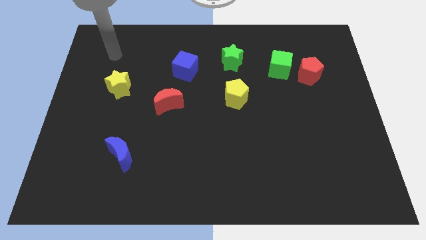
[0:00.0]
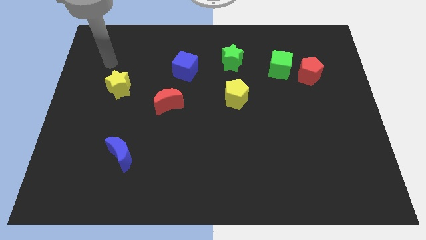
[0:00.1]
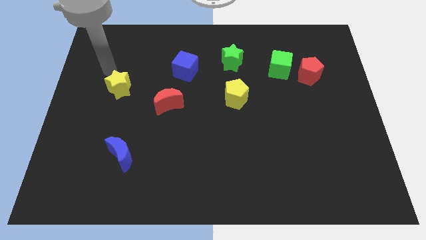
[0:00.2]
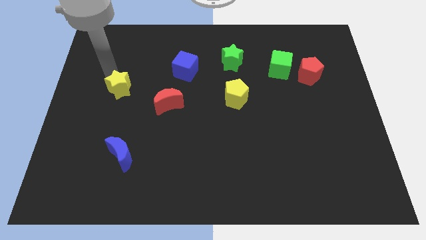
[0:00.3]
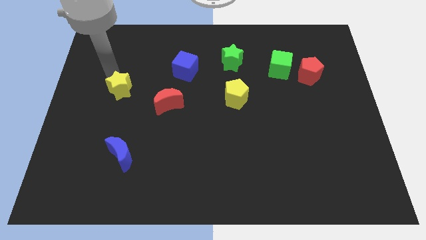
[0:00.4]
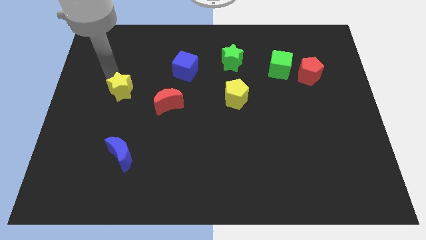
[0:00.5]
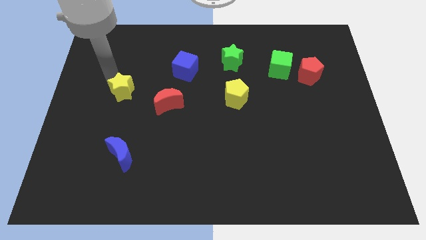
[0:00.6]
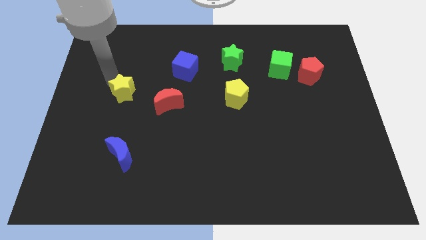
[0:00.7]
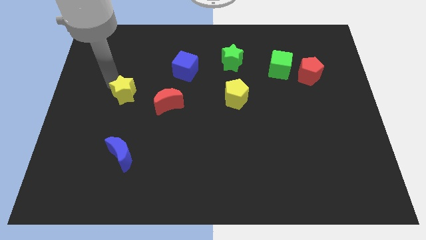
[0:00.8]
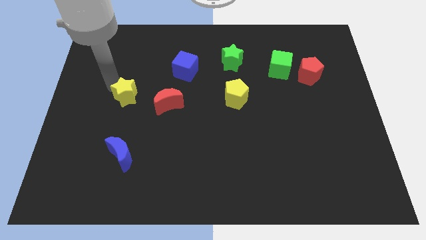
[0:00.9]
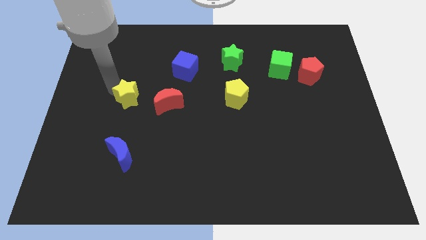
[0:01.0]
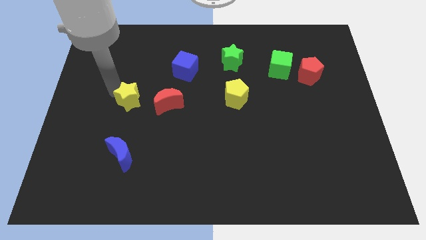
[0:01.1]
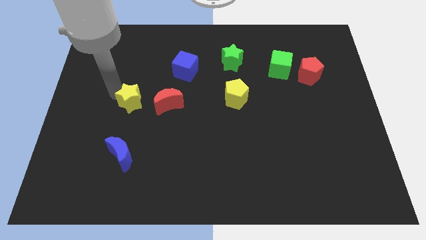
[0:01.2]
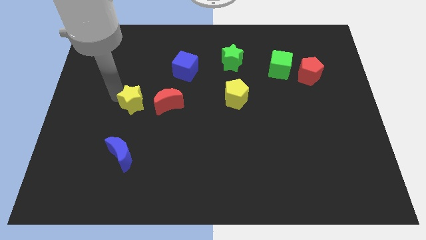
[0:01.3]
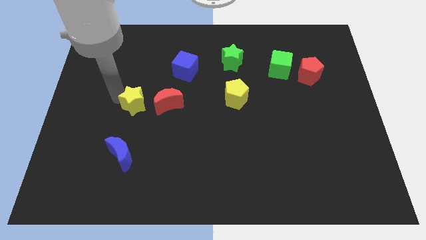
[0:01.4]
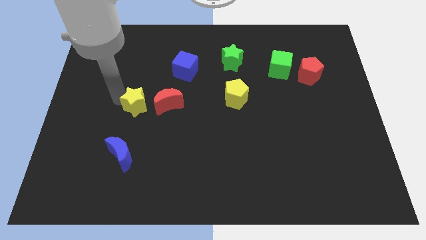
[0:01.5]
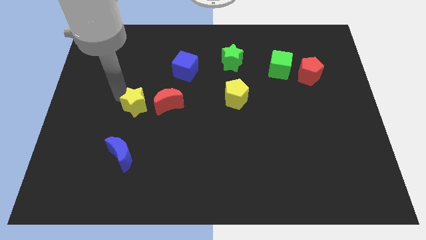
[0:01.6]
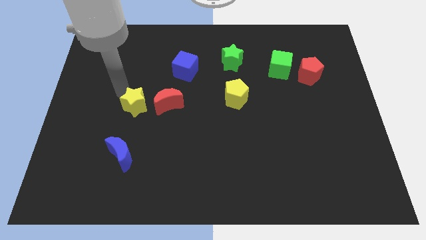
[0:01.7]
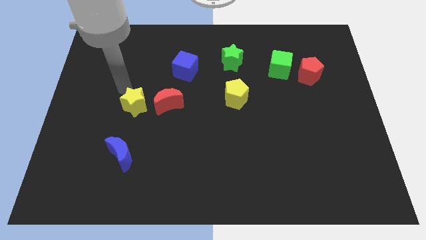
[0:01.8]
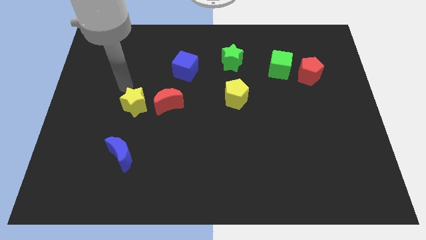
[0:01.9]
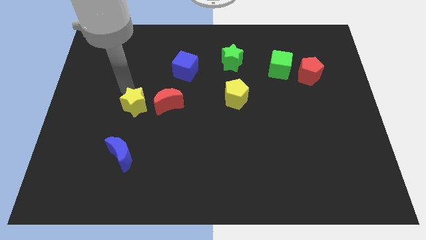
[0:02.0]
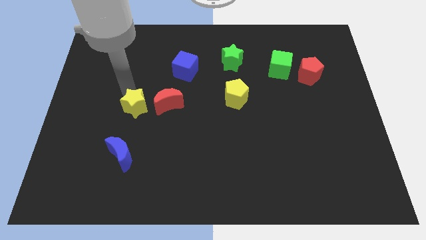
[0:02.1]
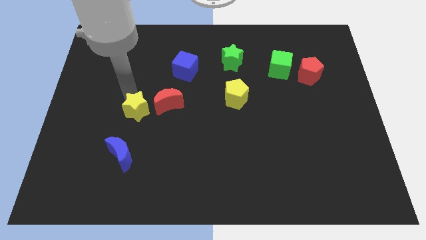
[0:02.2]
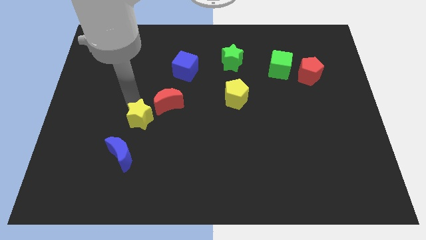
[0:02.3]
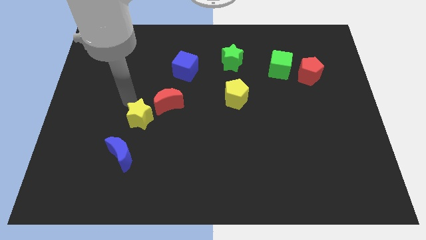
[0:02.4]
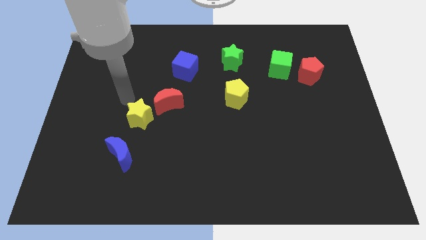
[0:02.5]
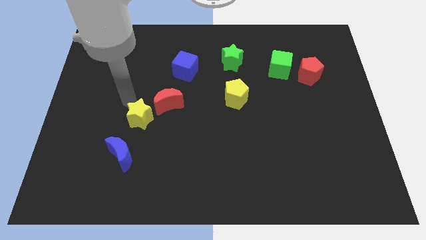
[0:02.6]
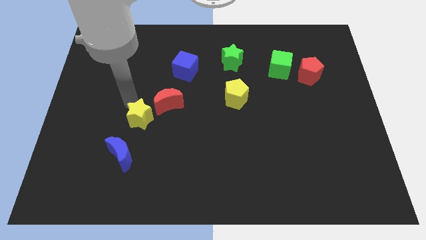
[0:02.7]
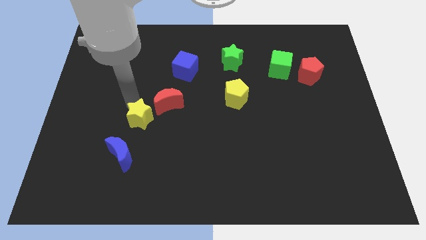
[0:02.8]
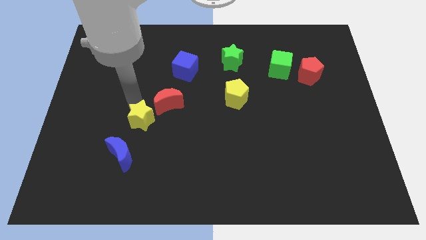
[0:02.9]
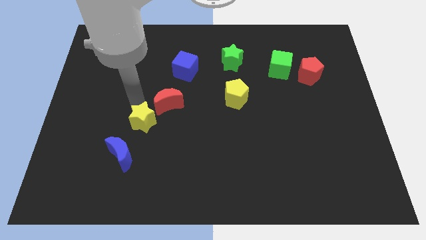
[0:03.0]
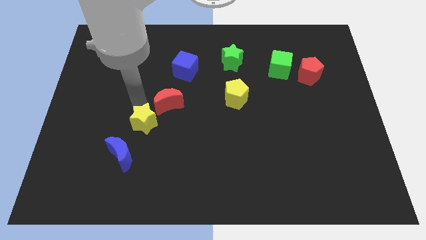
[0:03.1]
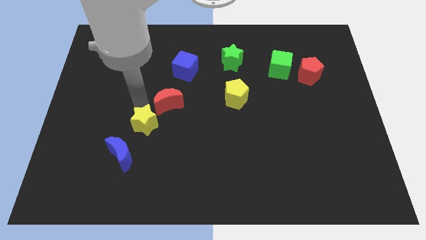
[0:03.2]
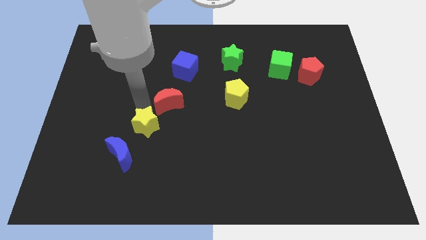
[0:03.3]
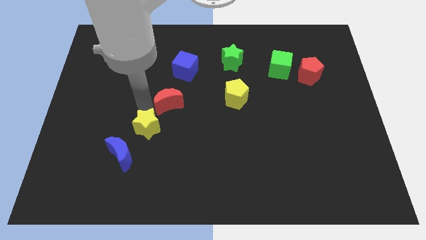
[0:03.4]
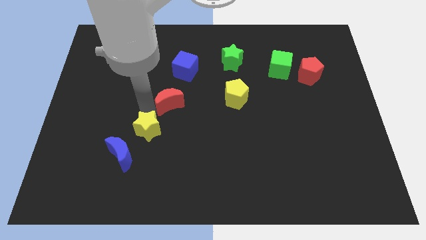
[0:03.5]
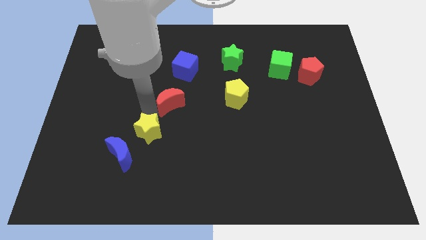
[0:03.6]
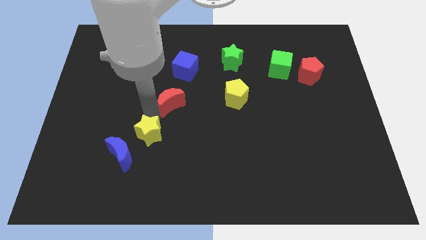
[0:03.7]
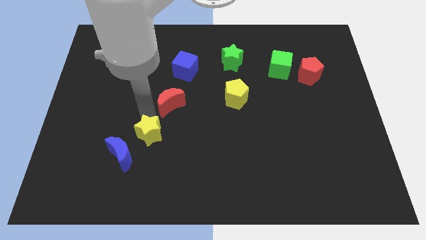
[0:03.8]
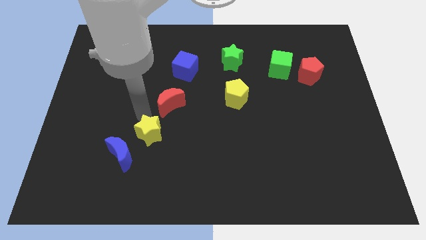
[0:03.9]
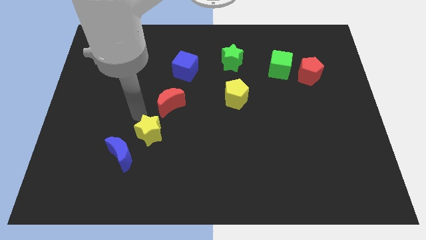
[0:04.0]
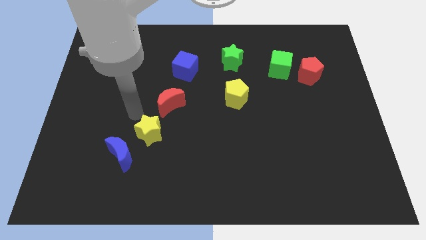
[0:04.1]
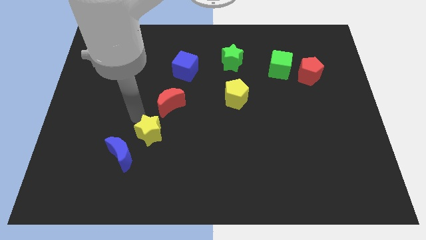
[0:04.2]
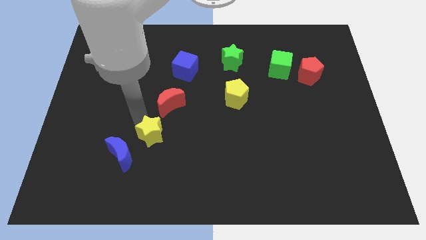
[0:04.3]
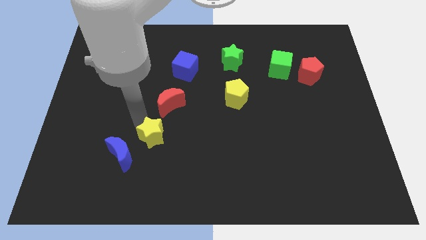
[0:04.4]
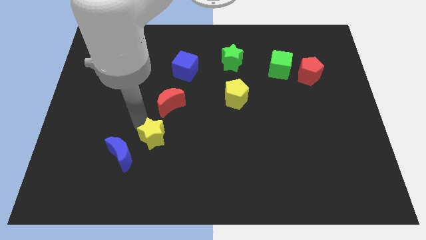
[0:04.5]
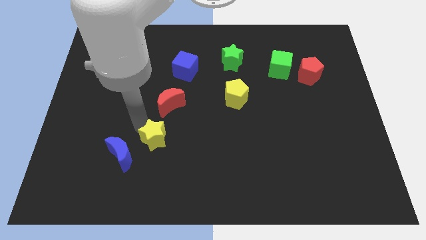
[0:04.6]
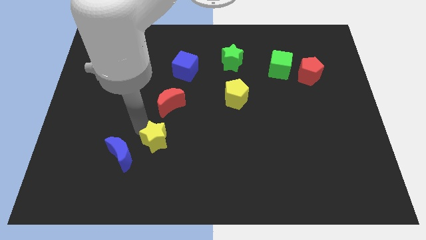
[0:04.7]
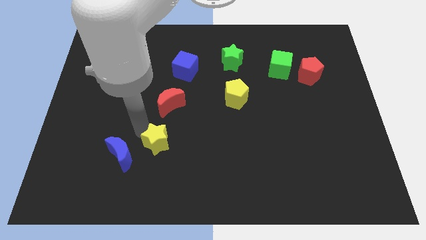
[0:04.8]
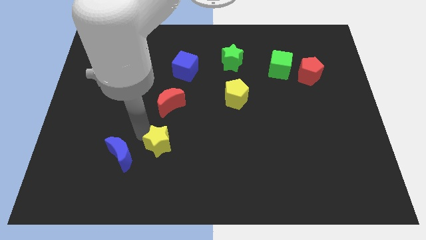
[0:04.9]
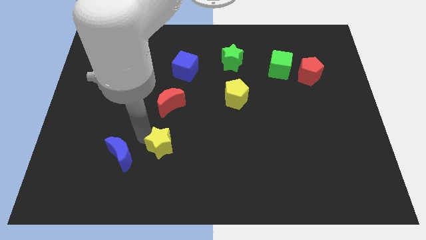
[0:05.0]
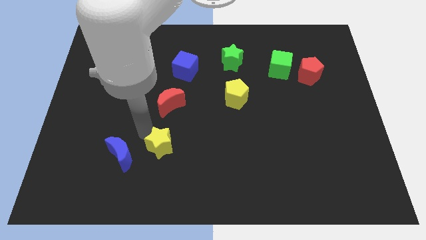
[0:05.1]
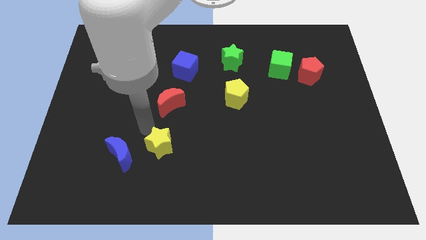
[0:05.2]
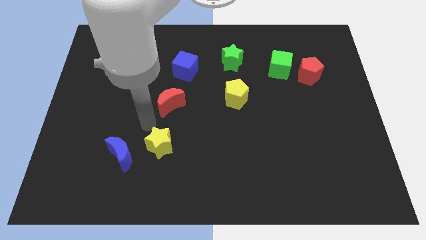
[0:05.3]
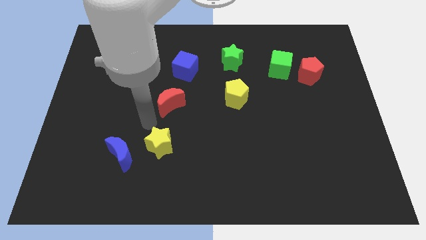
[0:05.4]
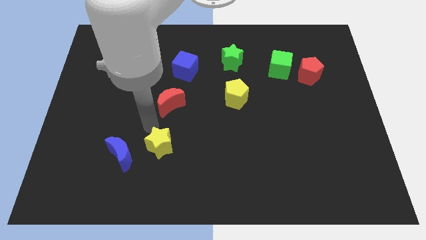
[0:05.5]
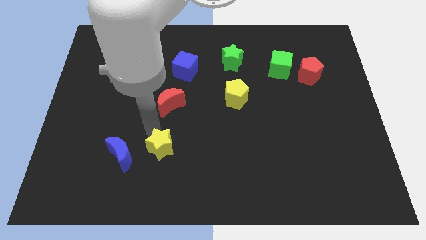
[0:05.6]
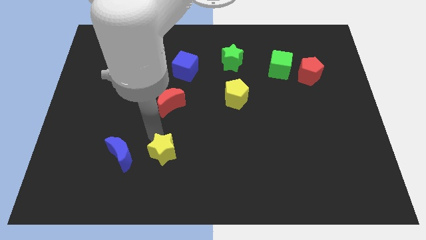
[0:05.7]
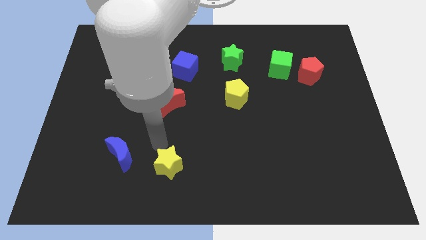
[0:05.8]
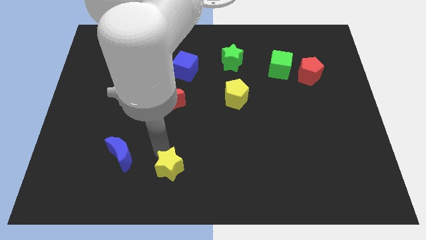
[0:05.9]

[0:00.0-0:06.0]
push the yellow star to the bottom

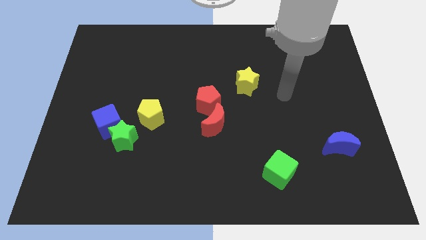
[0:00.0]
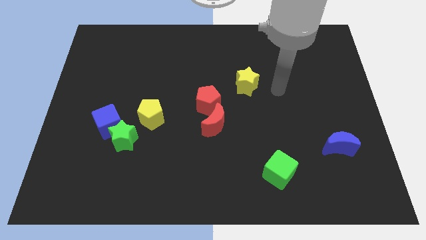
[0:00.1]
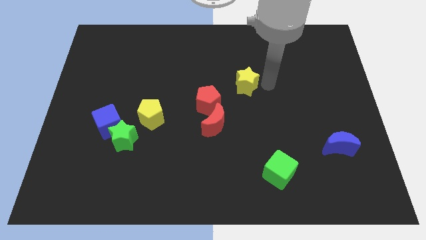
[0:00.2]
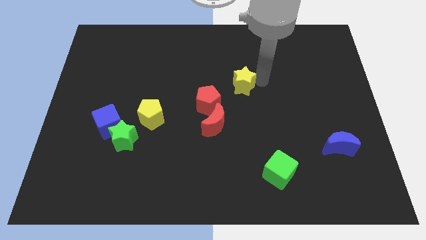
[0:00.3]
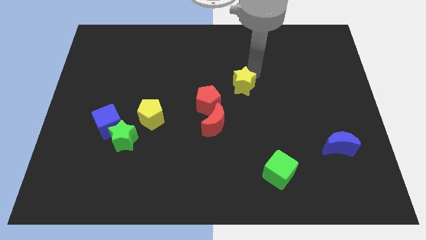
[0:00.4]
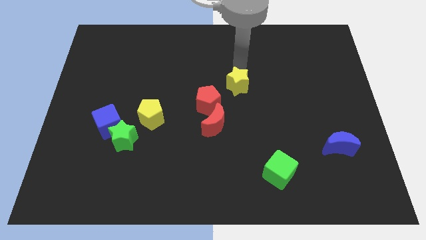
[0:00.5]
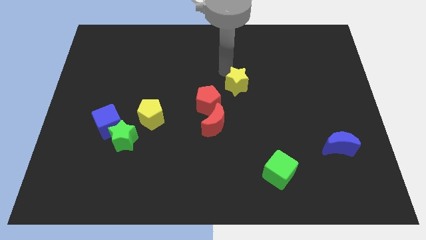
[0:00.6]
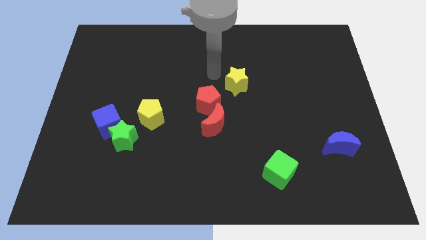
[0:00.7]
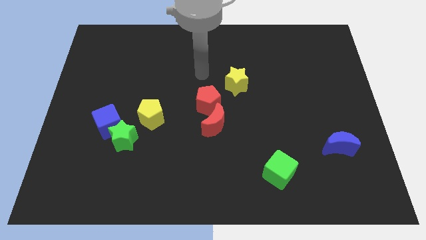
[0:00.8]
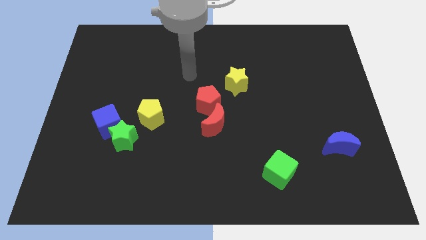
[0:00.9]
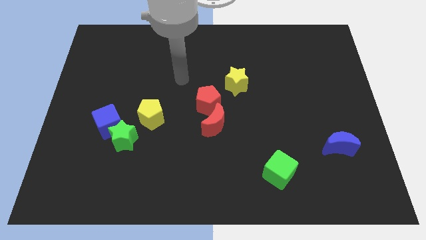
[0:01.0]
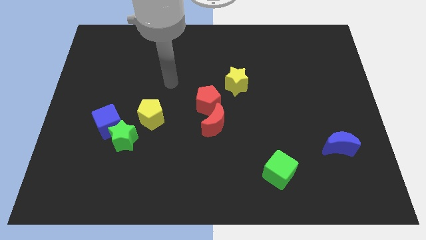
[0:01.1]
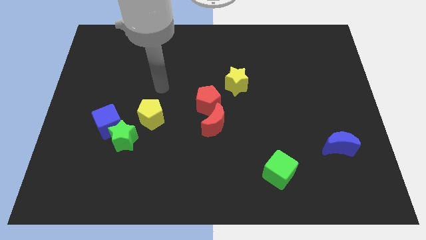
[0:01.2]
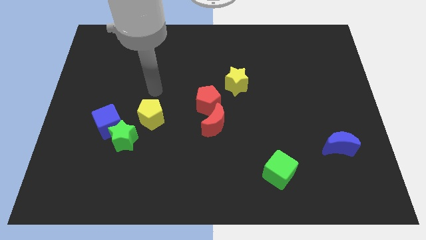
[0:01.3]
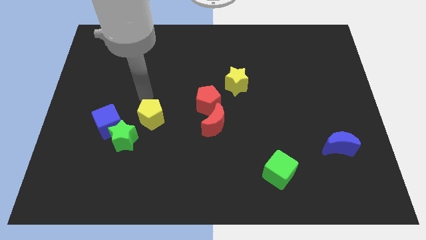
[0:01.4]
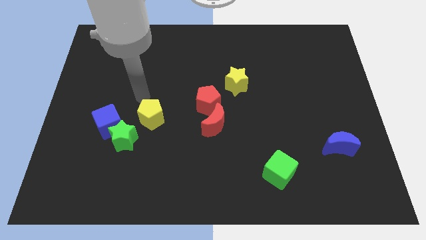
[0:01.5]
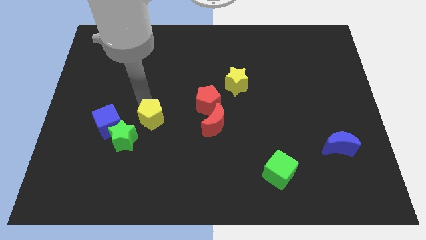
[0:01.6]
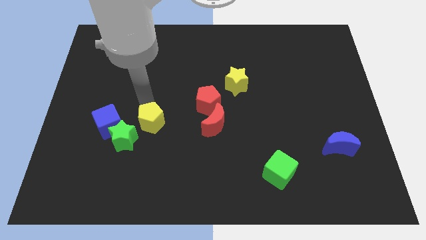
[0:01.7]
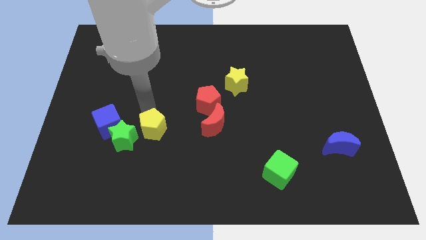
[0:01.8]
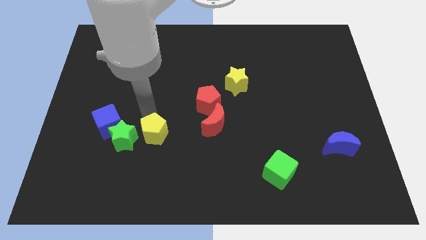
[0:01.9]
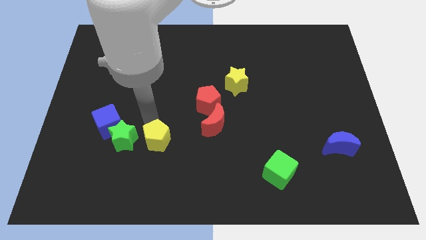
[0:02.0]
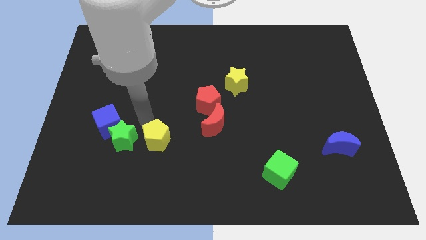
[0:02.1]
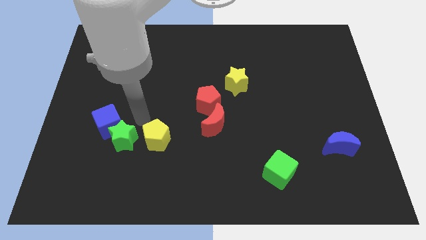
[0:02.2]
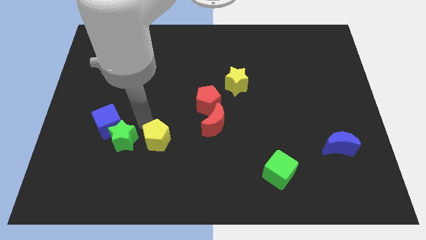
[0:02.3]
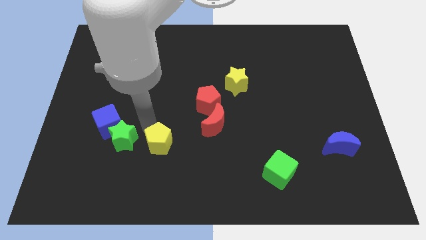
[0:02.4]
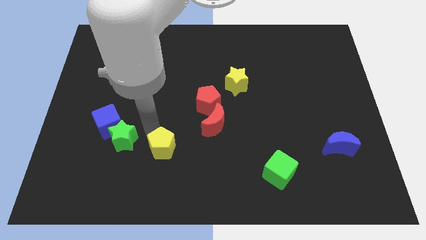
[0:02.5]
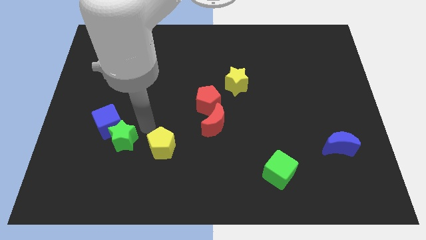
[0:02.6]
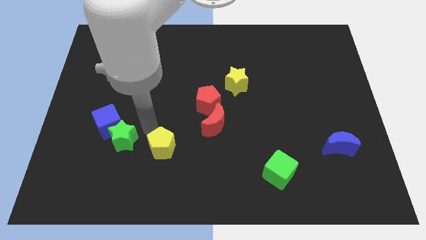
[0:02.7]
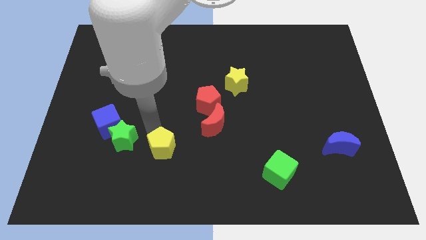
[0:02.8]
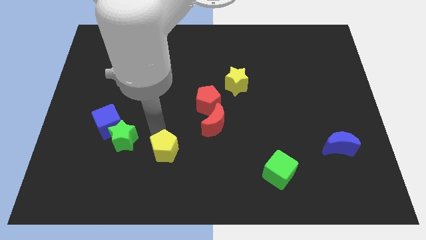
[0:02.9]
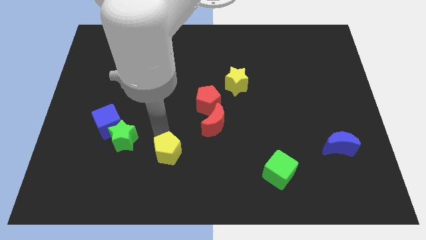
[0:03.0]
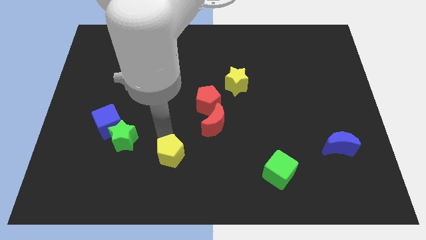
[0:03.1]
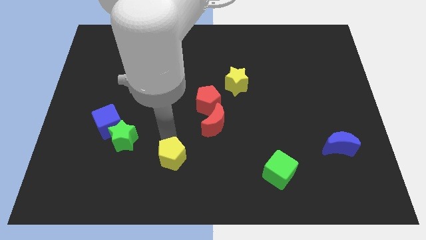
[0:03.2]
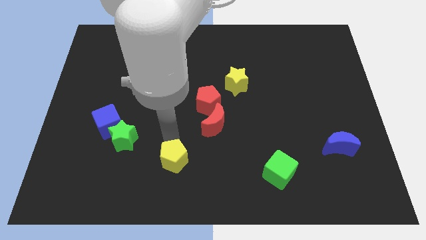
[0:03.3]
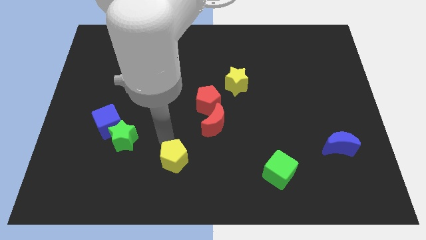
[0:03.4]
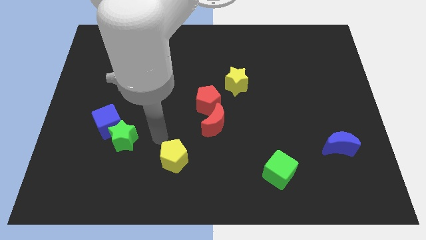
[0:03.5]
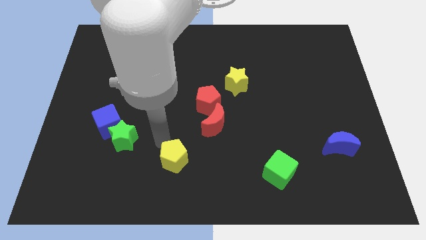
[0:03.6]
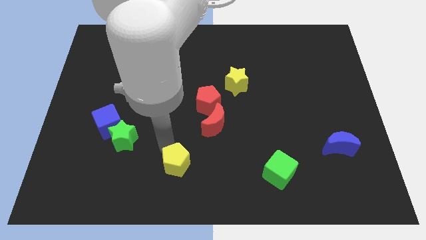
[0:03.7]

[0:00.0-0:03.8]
put the yellow pentagon to the bottom
